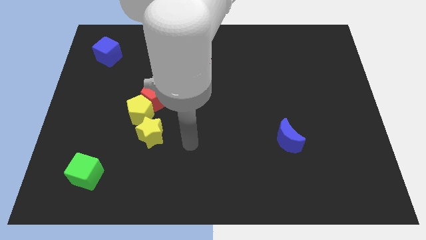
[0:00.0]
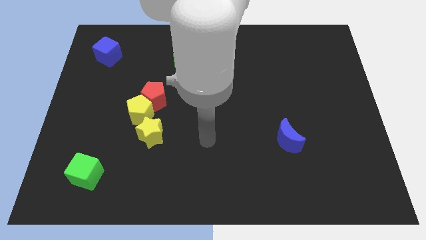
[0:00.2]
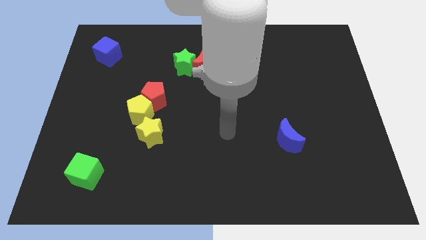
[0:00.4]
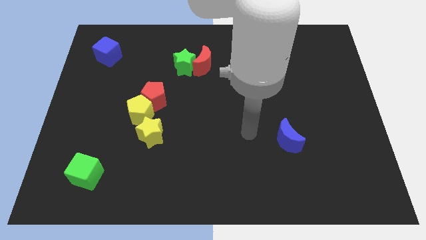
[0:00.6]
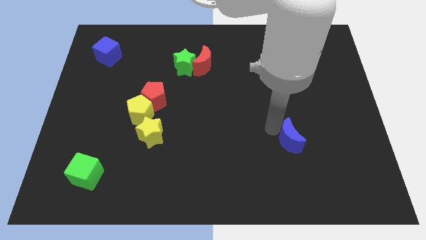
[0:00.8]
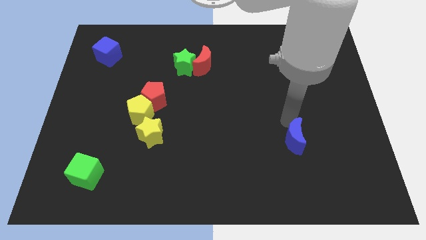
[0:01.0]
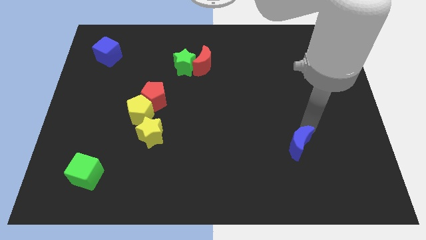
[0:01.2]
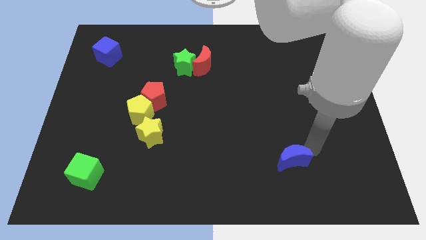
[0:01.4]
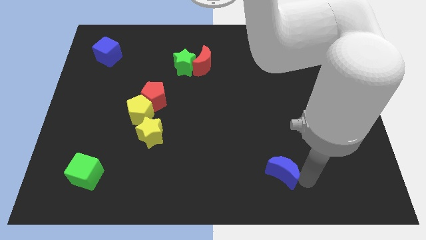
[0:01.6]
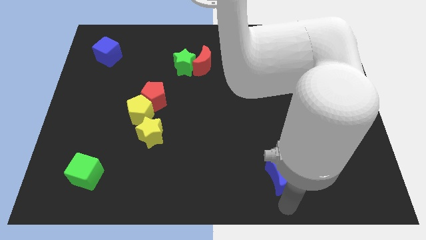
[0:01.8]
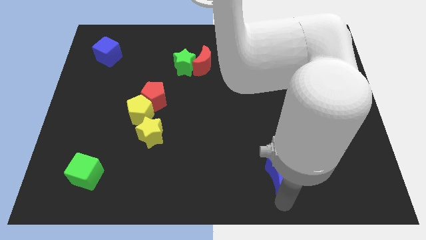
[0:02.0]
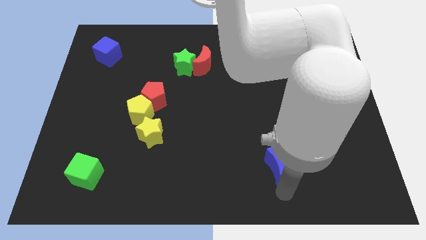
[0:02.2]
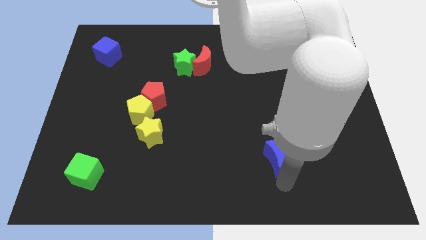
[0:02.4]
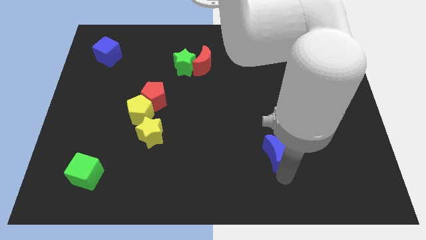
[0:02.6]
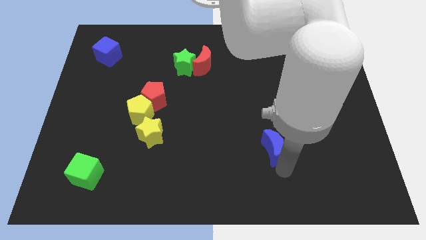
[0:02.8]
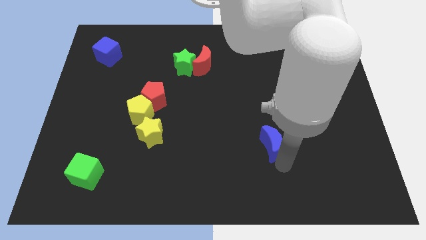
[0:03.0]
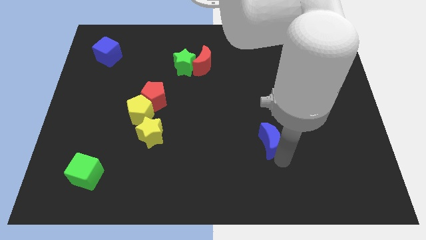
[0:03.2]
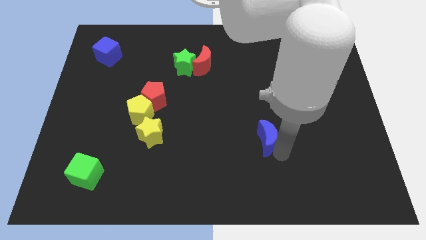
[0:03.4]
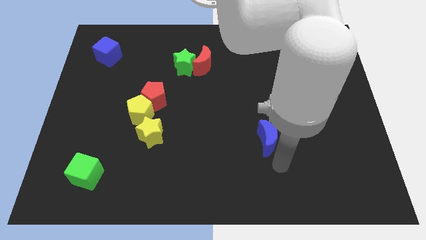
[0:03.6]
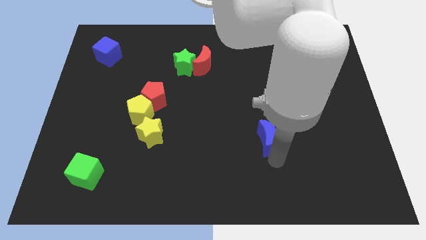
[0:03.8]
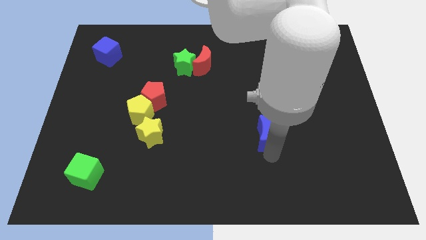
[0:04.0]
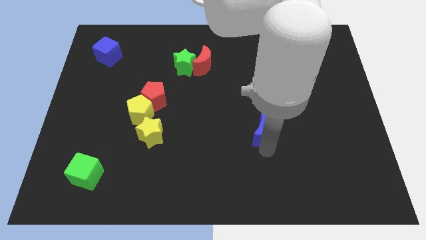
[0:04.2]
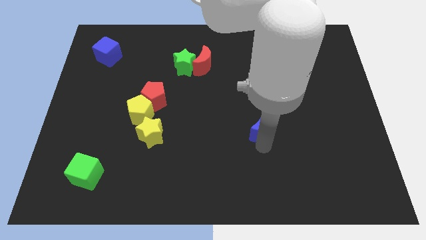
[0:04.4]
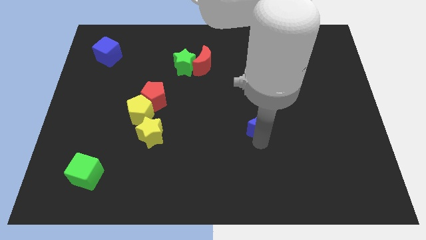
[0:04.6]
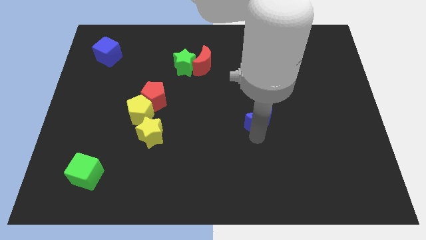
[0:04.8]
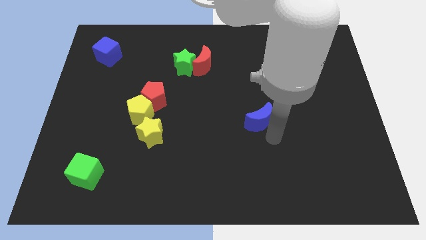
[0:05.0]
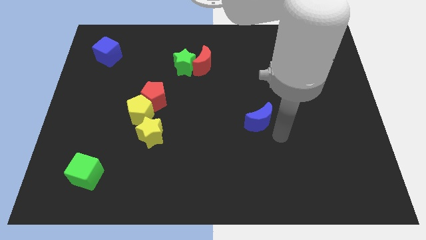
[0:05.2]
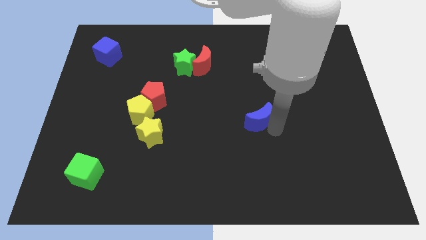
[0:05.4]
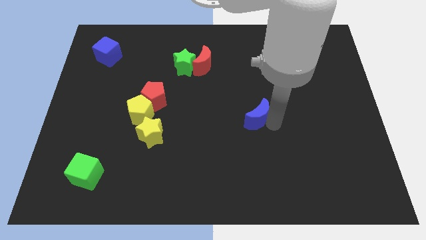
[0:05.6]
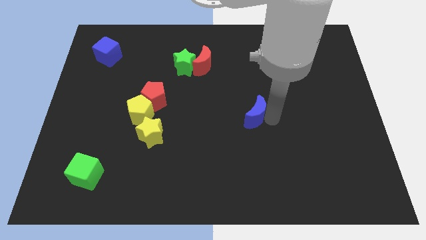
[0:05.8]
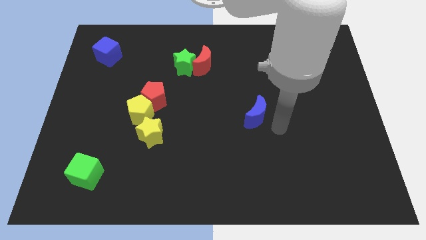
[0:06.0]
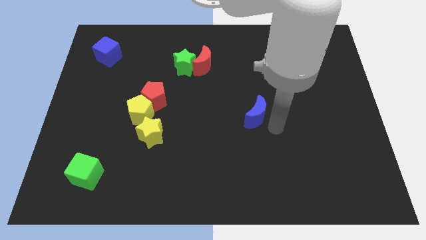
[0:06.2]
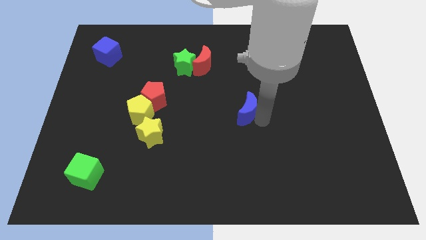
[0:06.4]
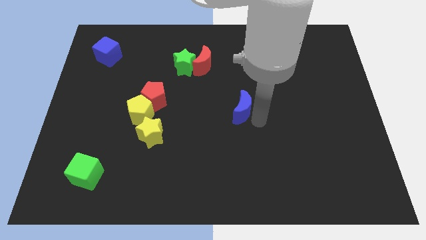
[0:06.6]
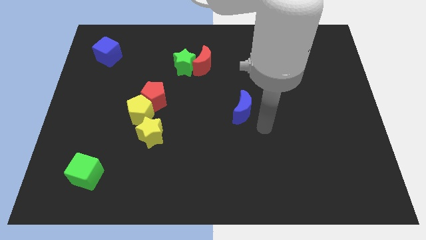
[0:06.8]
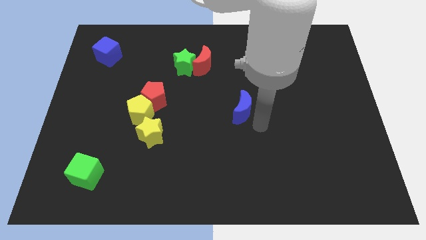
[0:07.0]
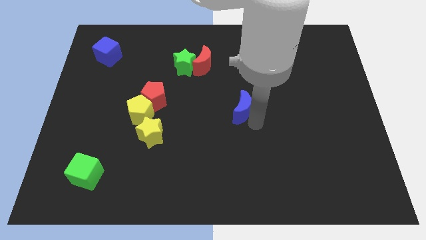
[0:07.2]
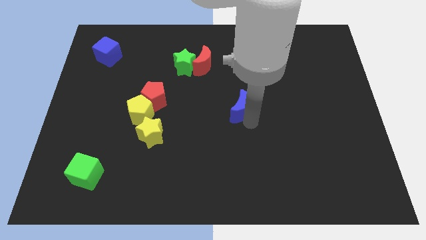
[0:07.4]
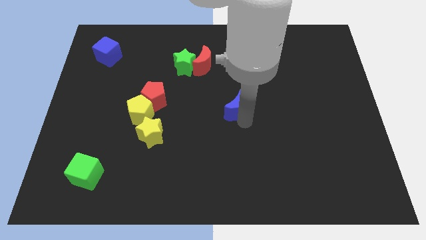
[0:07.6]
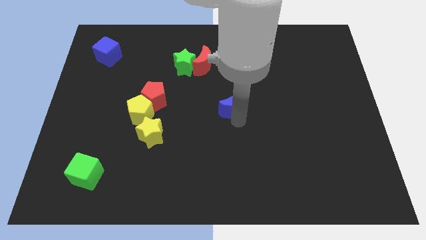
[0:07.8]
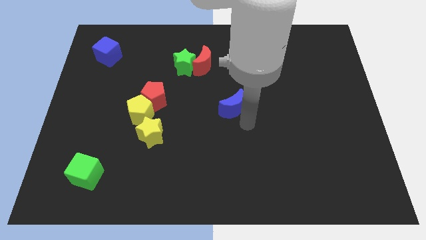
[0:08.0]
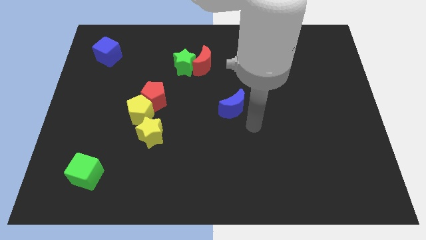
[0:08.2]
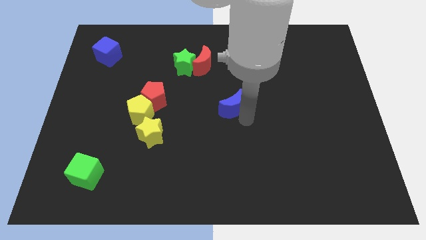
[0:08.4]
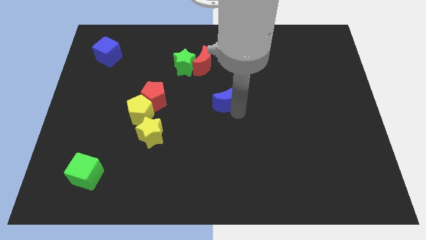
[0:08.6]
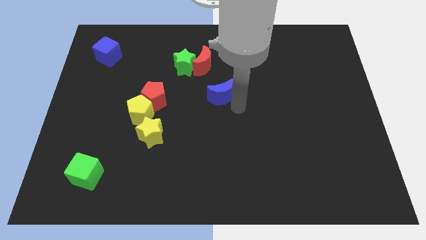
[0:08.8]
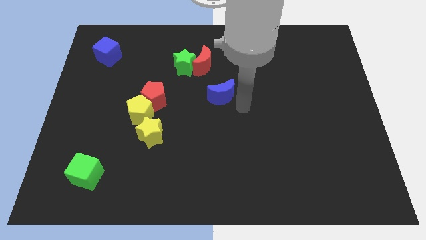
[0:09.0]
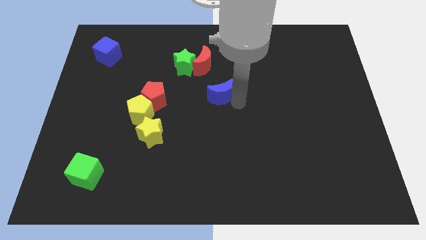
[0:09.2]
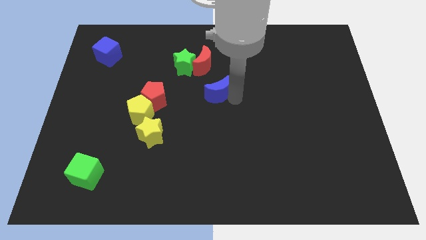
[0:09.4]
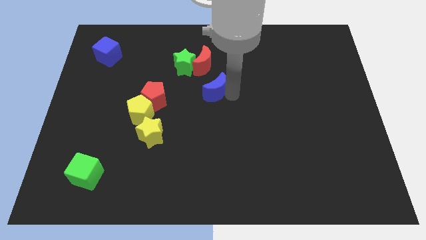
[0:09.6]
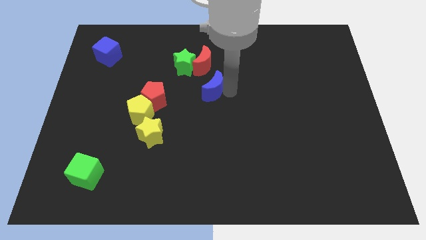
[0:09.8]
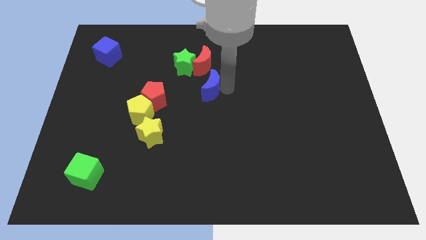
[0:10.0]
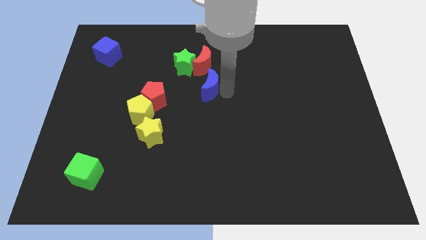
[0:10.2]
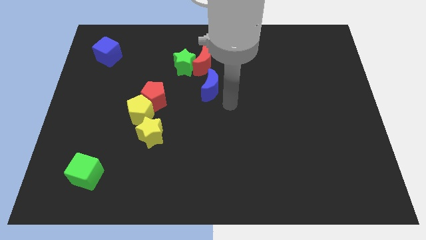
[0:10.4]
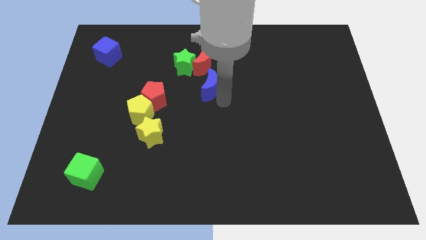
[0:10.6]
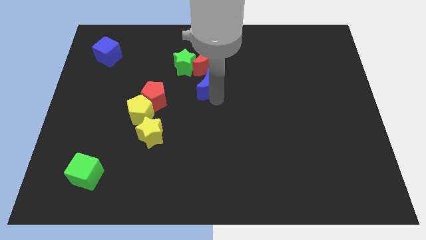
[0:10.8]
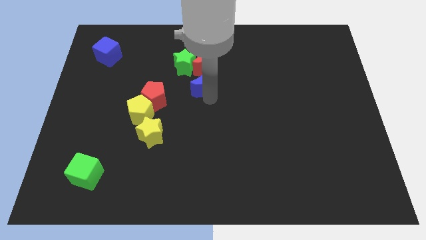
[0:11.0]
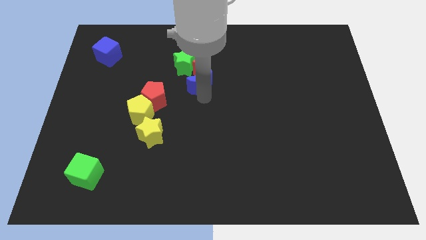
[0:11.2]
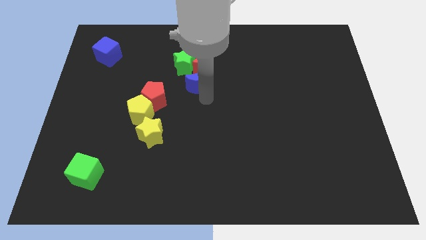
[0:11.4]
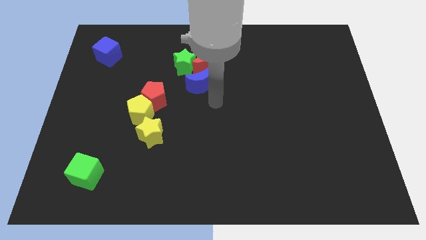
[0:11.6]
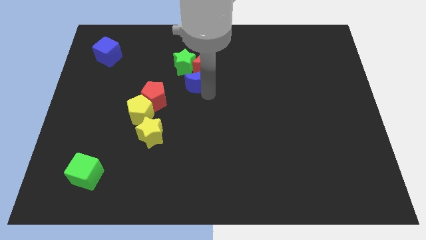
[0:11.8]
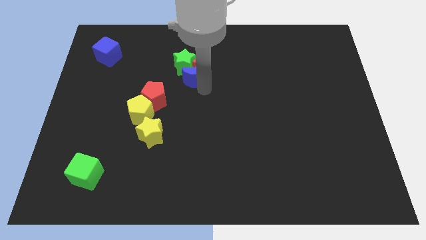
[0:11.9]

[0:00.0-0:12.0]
push the blue moon to the green star

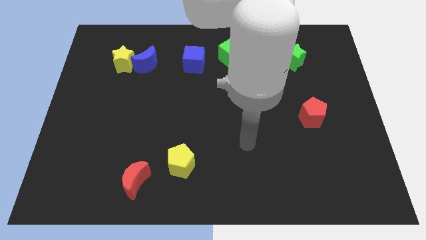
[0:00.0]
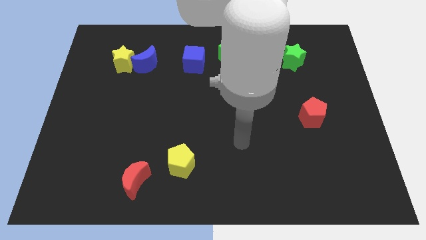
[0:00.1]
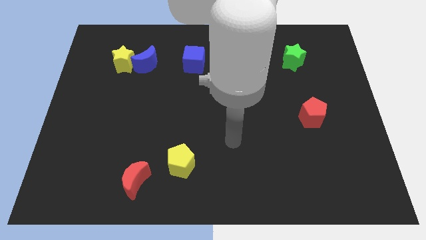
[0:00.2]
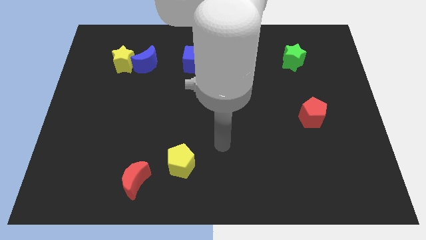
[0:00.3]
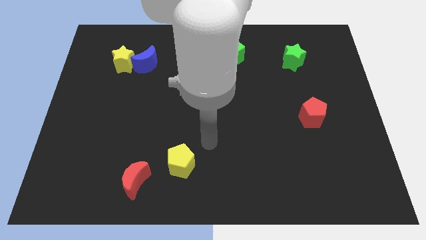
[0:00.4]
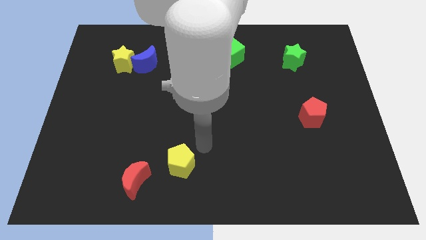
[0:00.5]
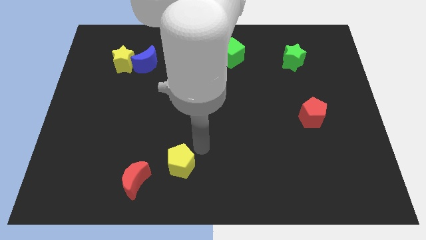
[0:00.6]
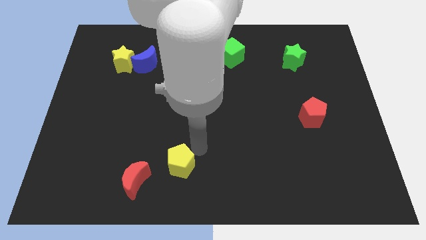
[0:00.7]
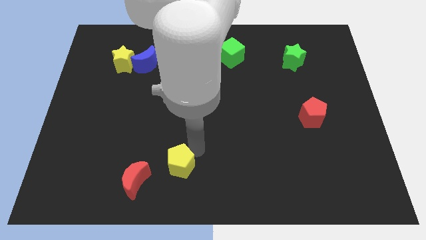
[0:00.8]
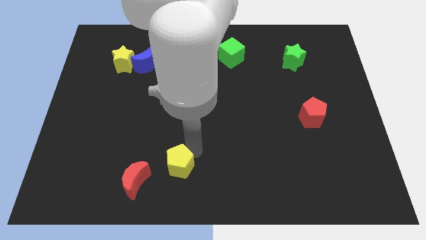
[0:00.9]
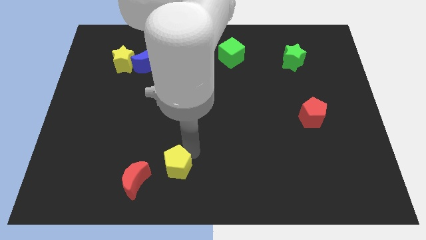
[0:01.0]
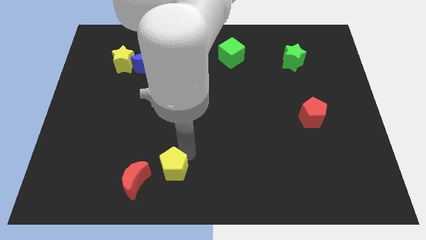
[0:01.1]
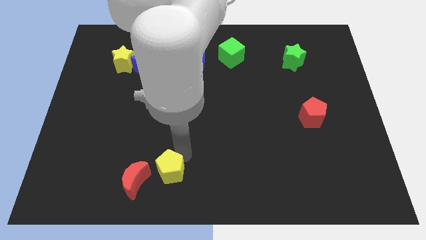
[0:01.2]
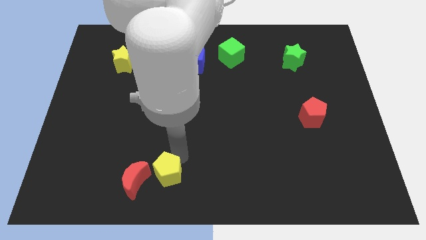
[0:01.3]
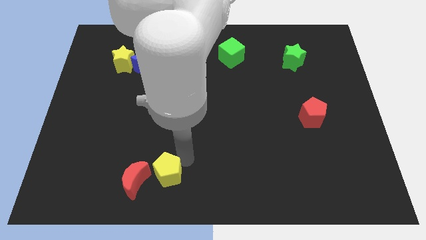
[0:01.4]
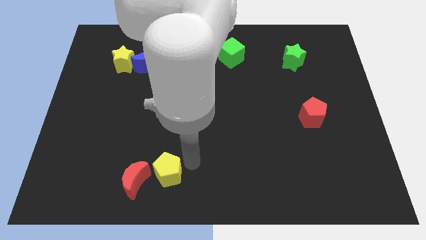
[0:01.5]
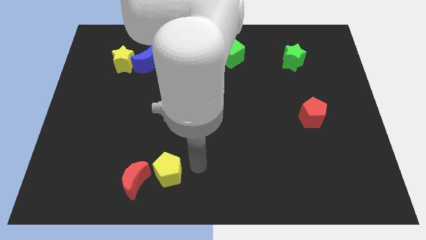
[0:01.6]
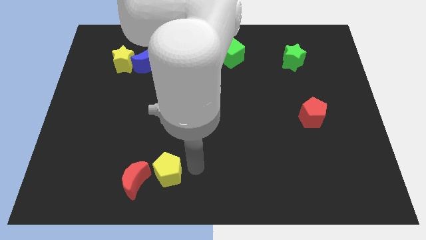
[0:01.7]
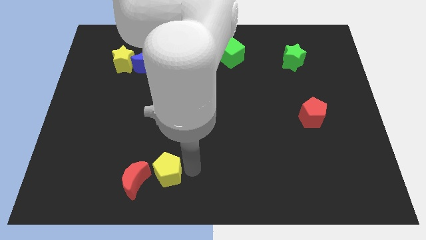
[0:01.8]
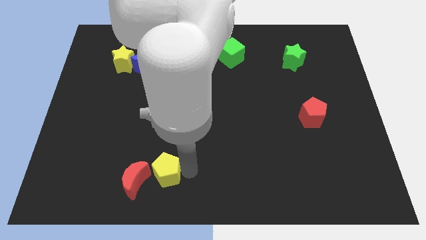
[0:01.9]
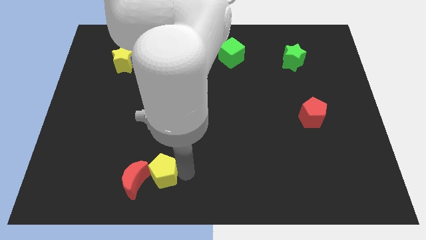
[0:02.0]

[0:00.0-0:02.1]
put the yellow pentagon to the red moon
